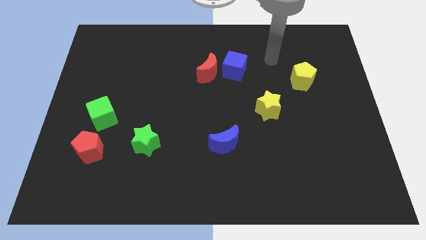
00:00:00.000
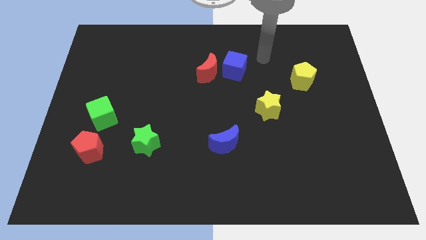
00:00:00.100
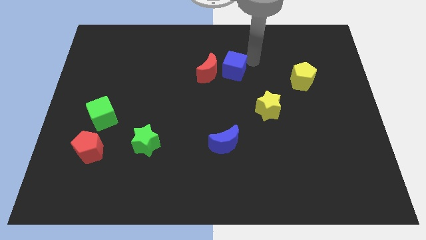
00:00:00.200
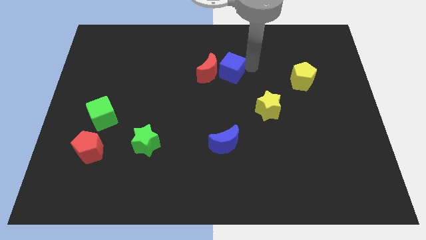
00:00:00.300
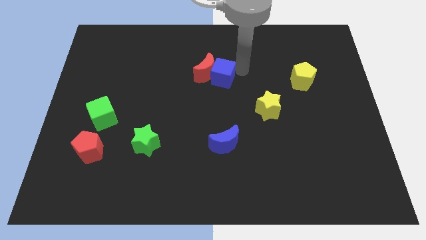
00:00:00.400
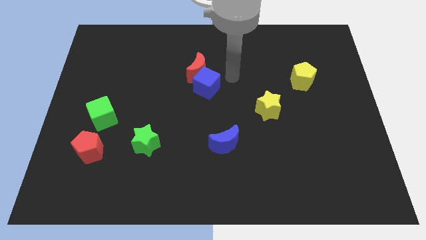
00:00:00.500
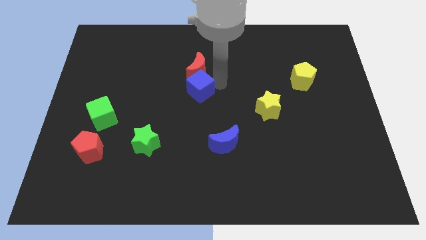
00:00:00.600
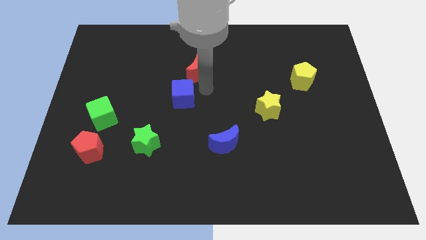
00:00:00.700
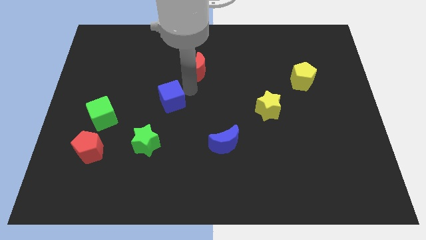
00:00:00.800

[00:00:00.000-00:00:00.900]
move the red moon away from the blue cube

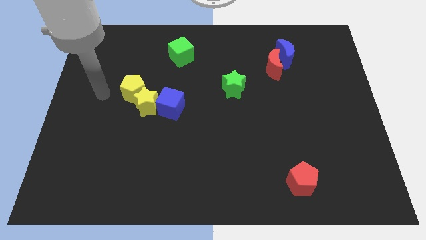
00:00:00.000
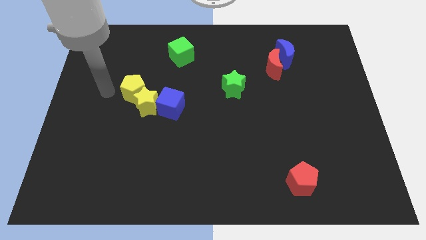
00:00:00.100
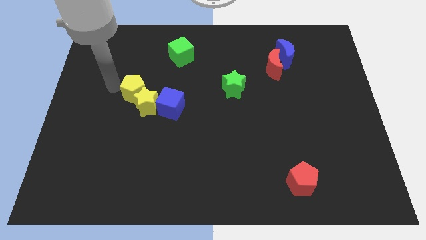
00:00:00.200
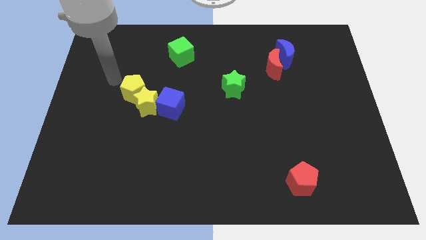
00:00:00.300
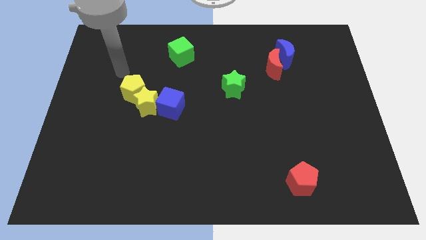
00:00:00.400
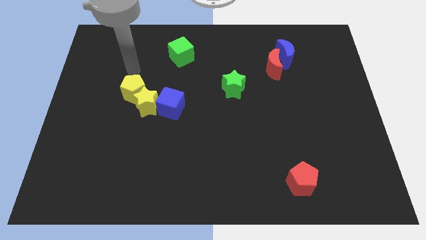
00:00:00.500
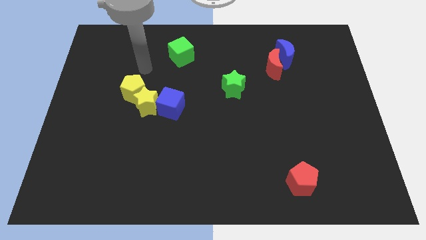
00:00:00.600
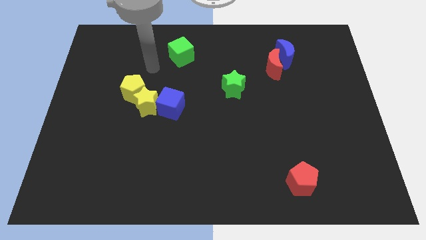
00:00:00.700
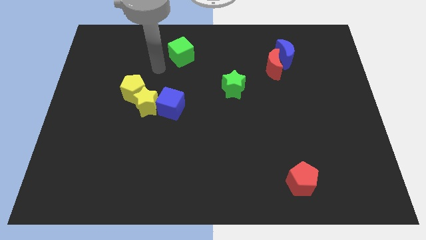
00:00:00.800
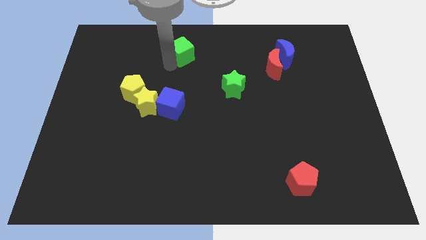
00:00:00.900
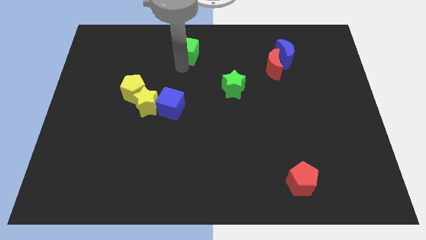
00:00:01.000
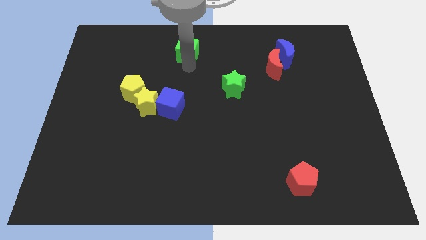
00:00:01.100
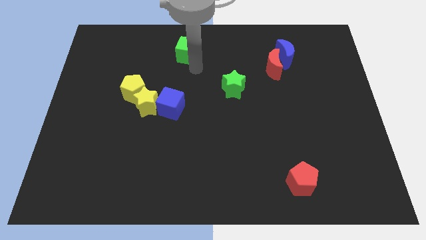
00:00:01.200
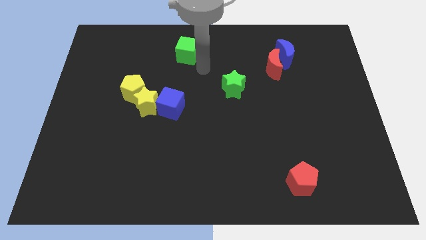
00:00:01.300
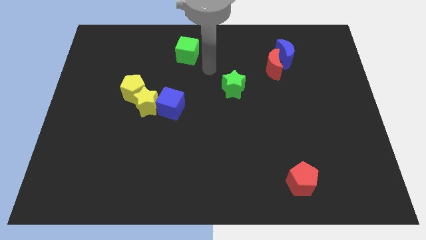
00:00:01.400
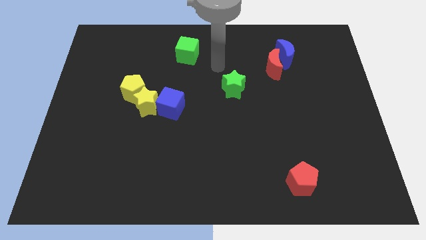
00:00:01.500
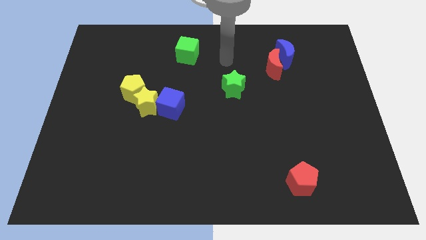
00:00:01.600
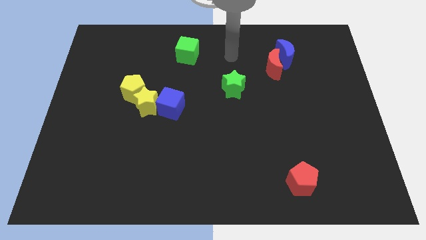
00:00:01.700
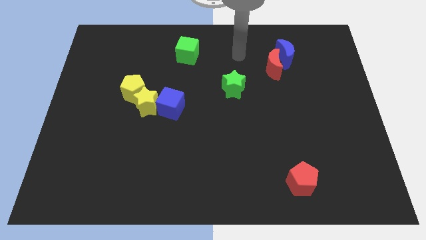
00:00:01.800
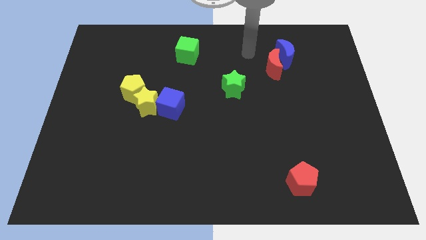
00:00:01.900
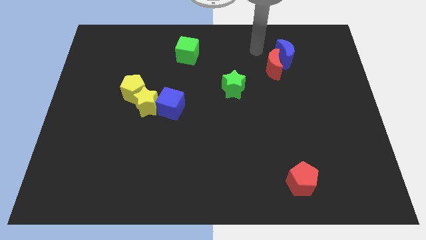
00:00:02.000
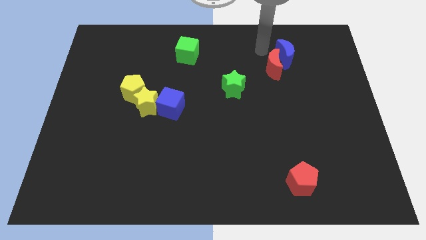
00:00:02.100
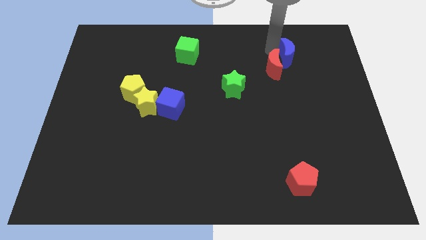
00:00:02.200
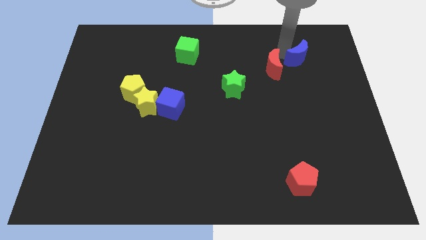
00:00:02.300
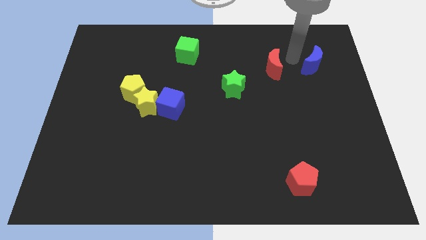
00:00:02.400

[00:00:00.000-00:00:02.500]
separate the red moon from the blue moon

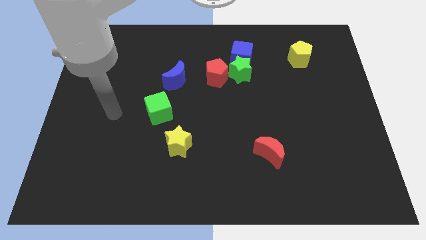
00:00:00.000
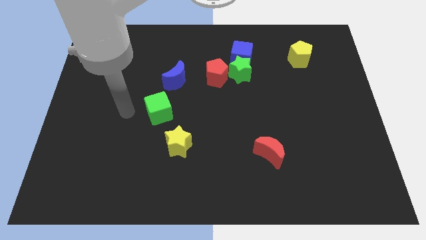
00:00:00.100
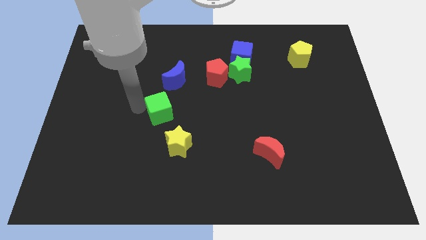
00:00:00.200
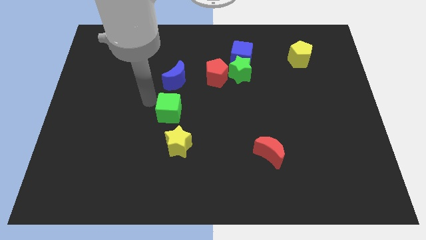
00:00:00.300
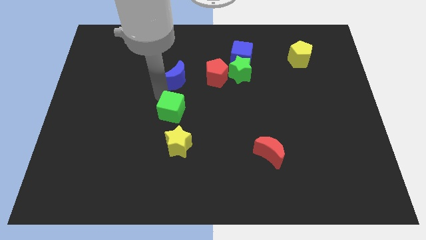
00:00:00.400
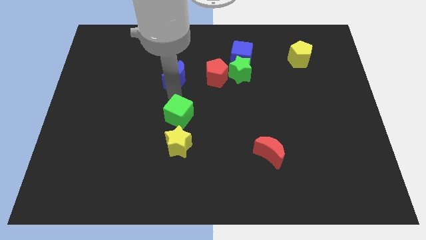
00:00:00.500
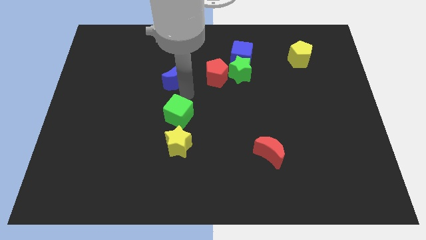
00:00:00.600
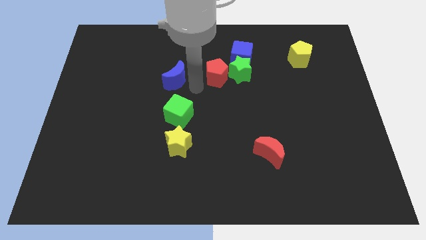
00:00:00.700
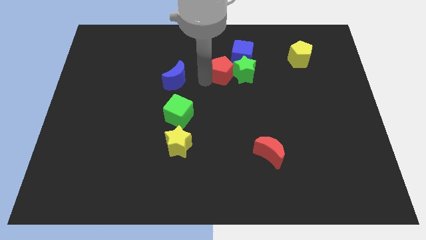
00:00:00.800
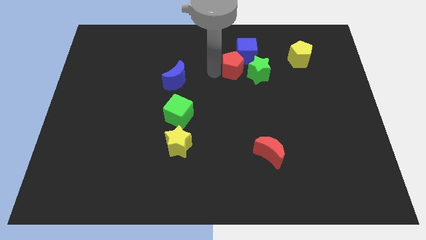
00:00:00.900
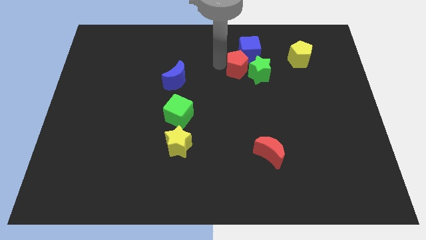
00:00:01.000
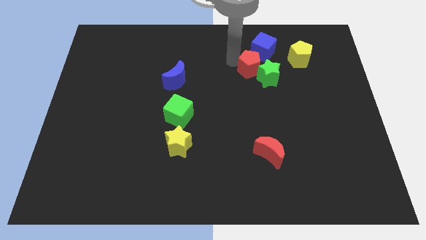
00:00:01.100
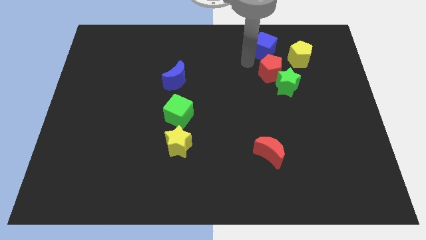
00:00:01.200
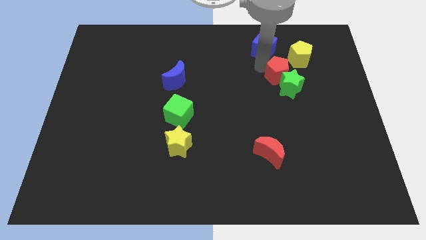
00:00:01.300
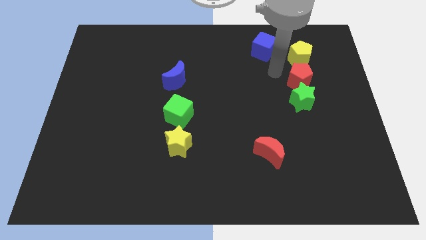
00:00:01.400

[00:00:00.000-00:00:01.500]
move the green star away from the blue cube and red pentagon

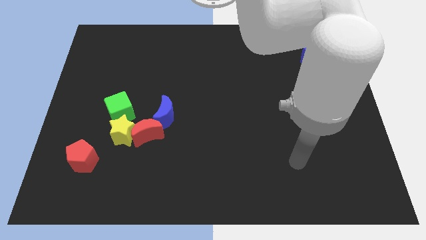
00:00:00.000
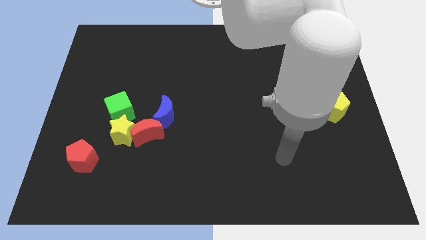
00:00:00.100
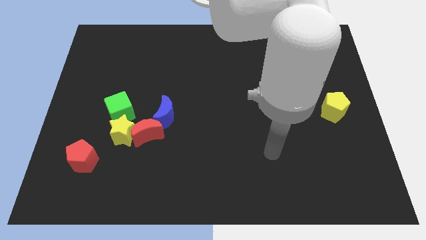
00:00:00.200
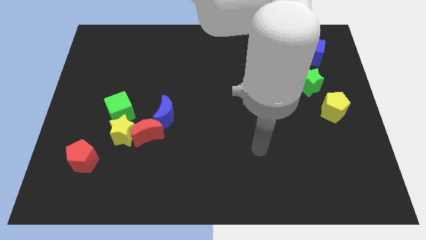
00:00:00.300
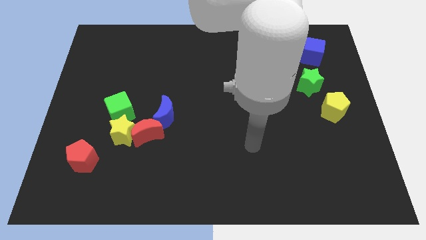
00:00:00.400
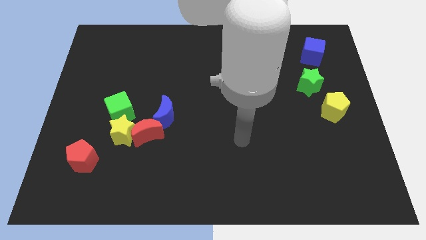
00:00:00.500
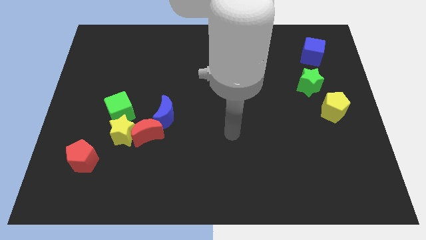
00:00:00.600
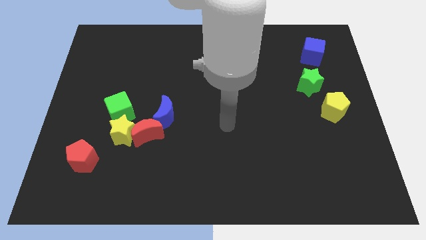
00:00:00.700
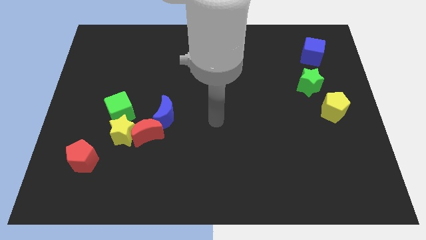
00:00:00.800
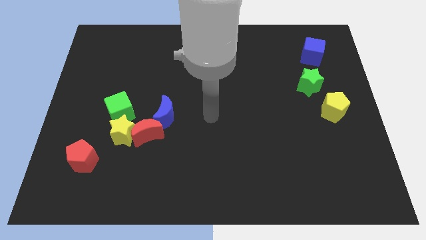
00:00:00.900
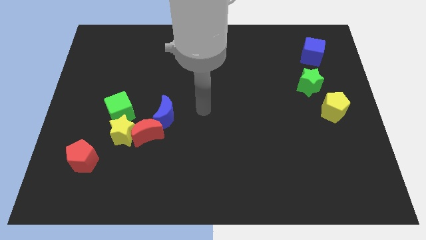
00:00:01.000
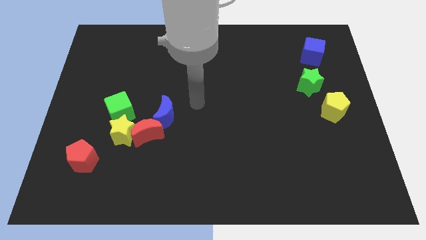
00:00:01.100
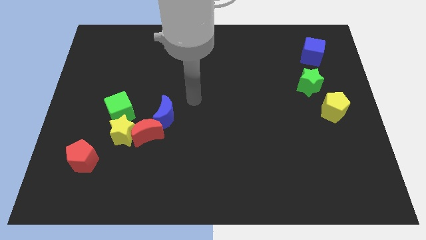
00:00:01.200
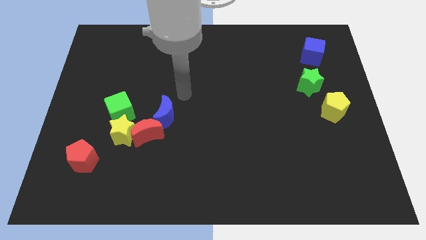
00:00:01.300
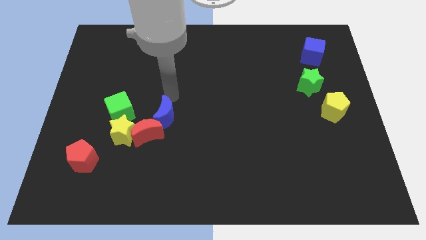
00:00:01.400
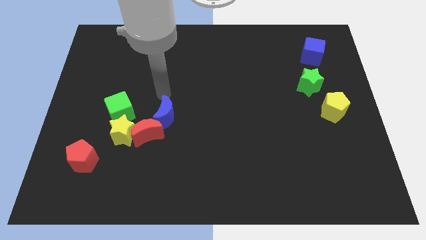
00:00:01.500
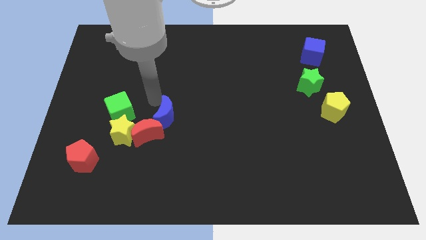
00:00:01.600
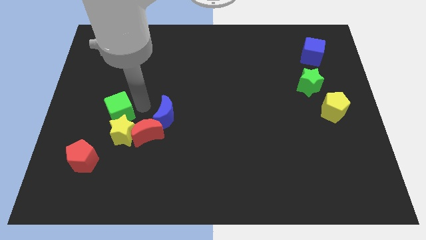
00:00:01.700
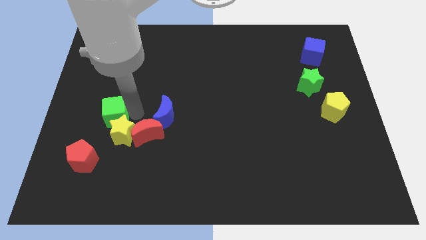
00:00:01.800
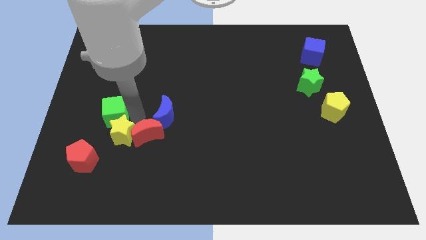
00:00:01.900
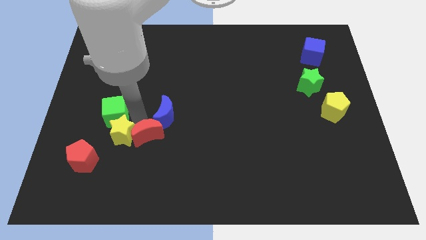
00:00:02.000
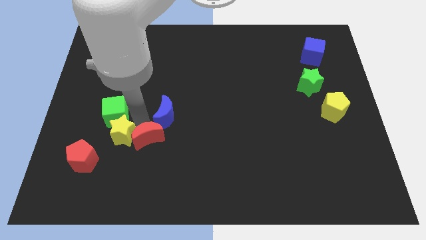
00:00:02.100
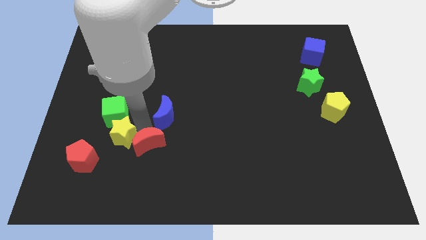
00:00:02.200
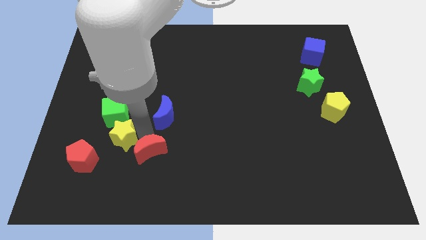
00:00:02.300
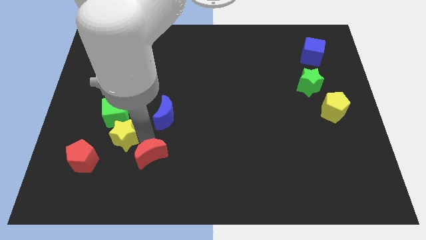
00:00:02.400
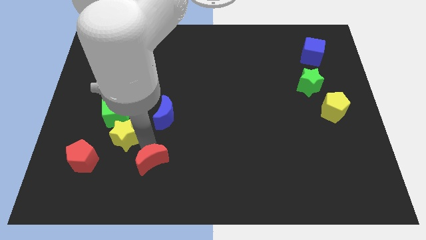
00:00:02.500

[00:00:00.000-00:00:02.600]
separate the red moon from the clump

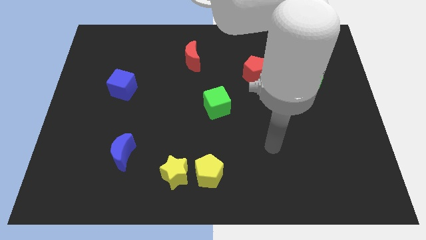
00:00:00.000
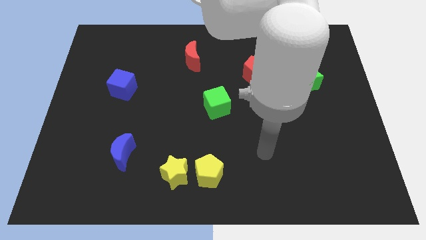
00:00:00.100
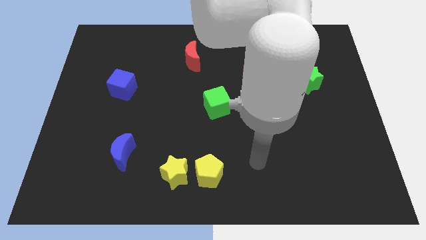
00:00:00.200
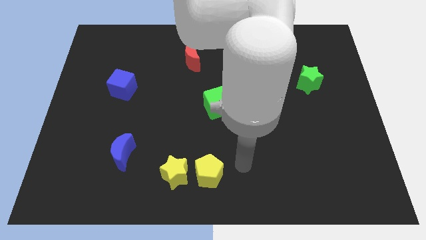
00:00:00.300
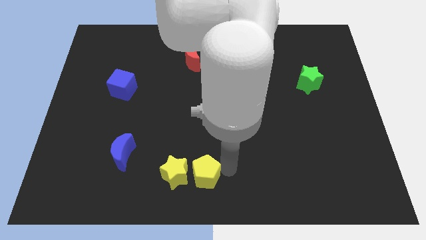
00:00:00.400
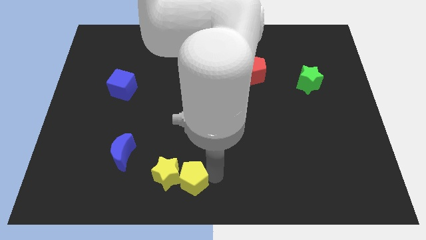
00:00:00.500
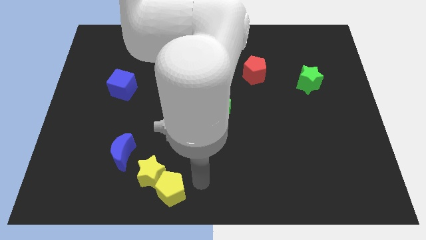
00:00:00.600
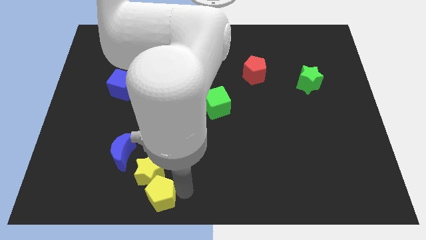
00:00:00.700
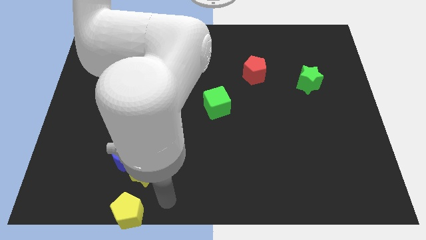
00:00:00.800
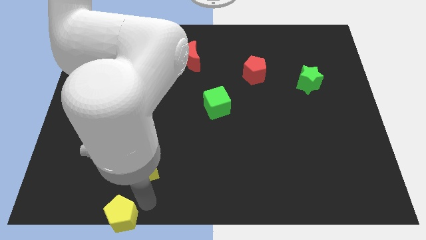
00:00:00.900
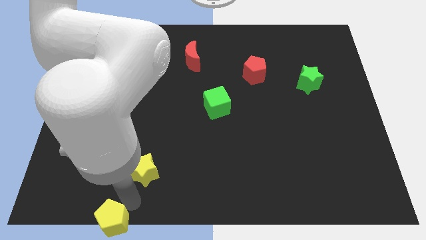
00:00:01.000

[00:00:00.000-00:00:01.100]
pull the yellow star apart from the yellow pentagon

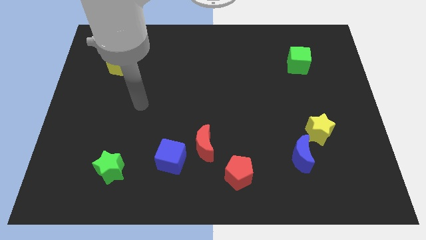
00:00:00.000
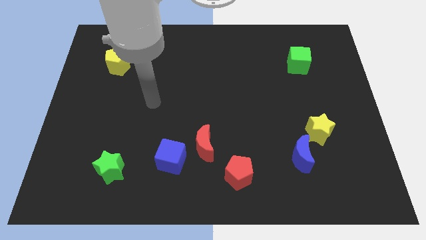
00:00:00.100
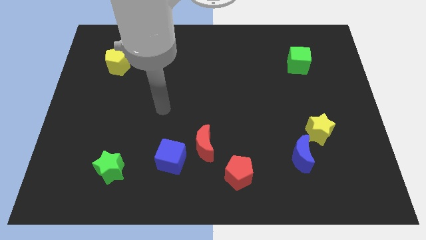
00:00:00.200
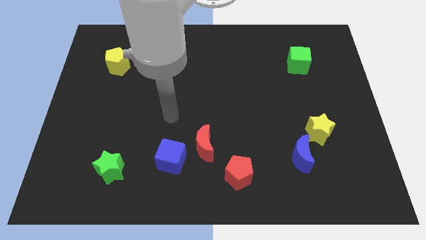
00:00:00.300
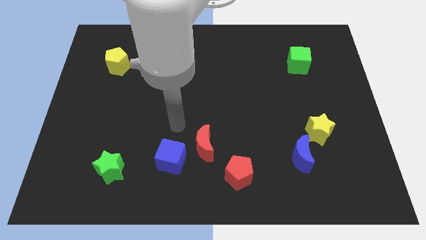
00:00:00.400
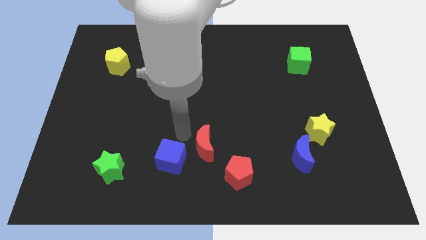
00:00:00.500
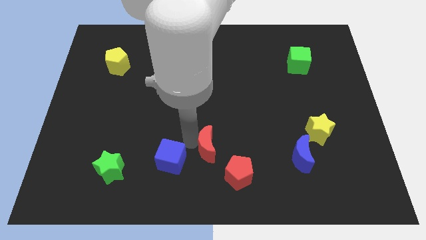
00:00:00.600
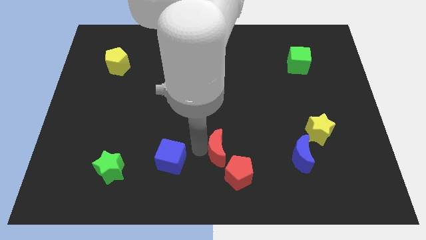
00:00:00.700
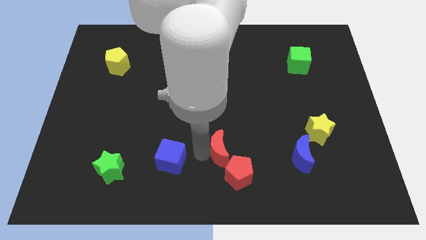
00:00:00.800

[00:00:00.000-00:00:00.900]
pull the blue cube apart from the red moon
